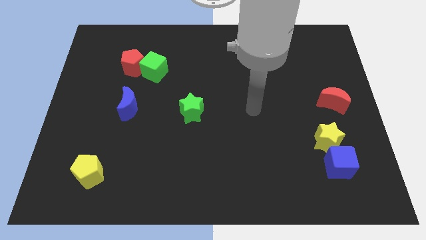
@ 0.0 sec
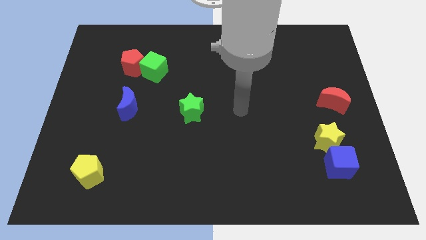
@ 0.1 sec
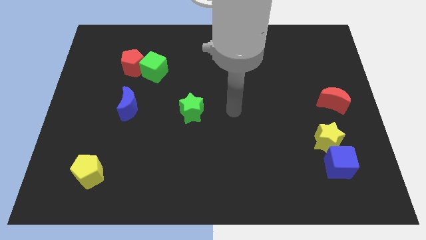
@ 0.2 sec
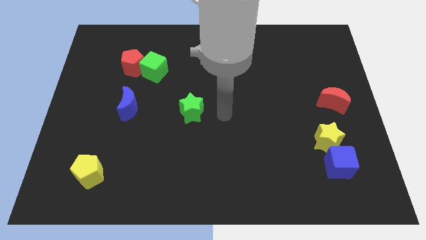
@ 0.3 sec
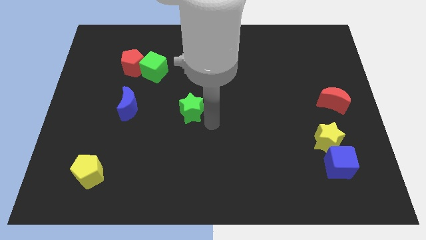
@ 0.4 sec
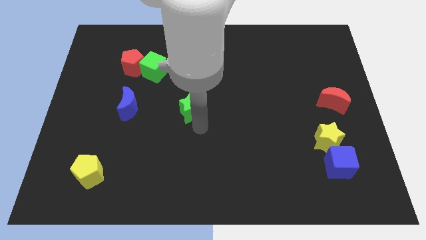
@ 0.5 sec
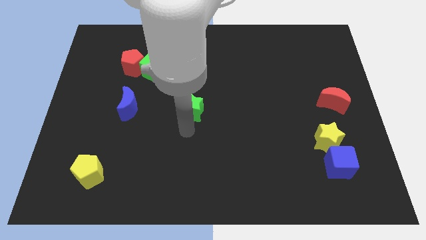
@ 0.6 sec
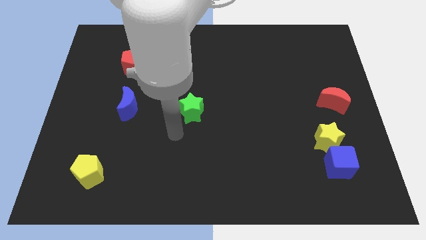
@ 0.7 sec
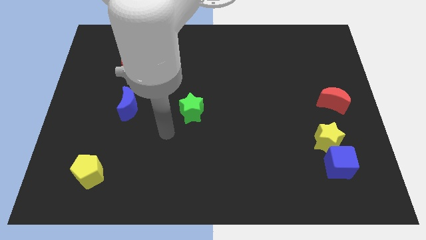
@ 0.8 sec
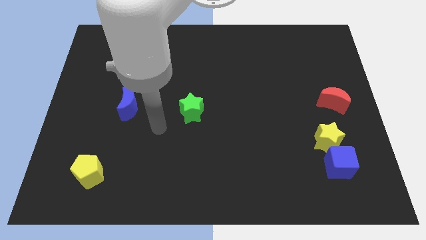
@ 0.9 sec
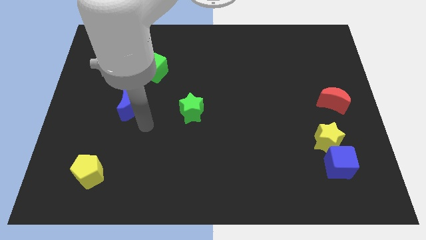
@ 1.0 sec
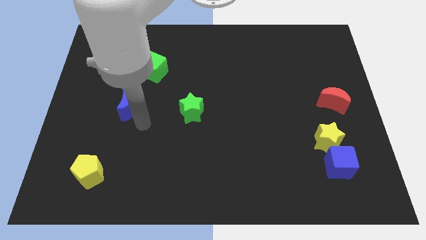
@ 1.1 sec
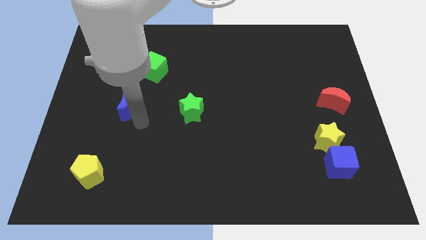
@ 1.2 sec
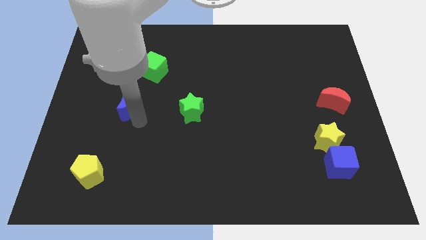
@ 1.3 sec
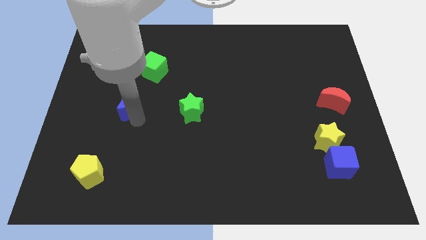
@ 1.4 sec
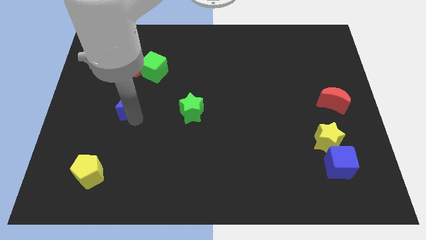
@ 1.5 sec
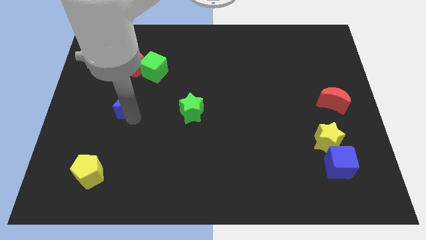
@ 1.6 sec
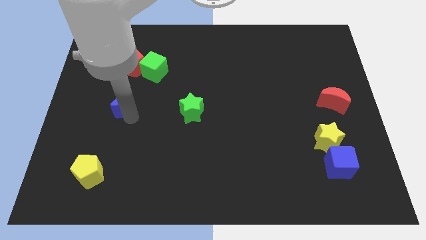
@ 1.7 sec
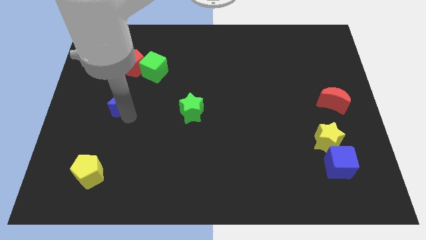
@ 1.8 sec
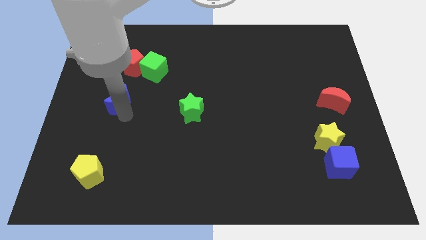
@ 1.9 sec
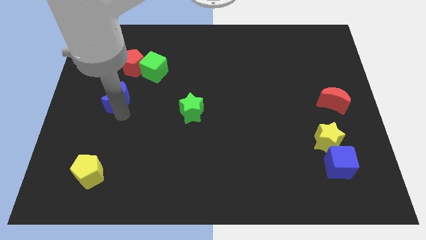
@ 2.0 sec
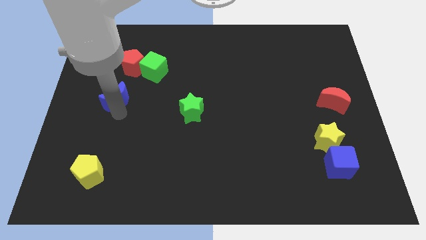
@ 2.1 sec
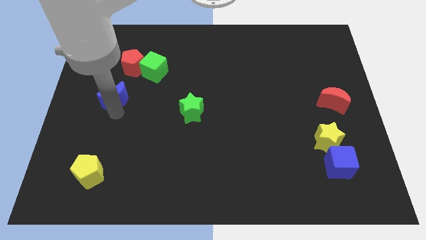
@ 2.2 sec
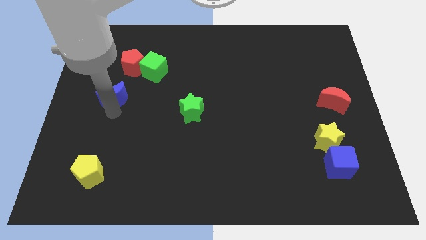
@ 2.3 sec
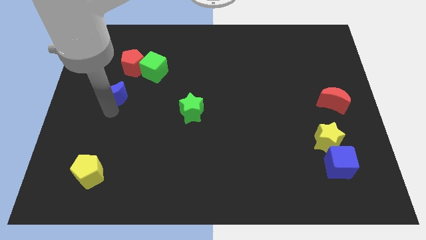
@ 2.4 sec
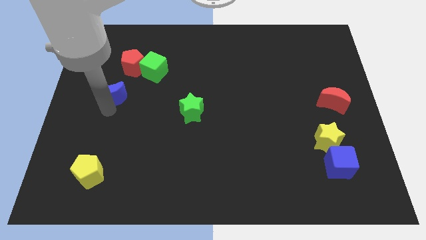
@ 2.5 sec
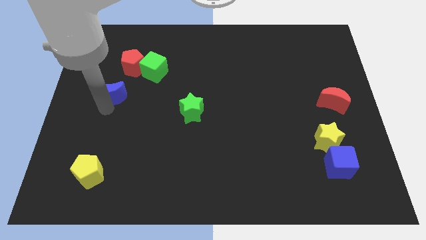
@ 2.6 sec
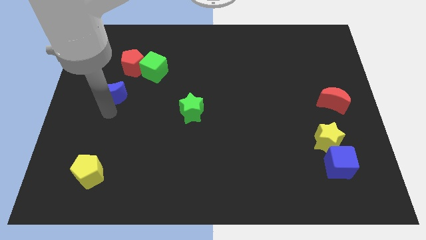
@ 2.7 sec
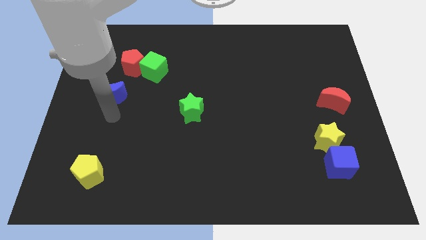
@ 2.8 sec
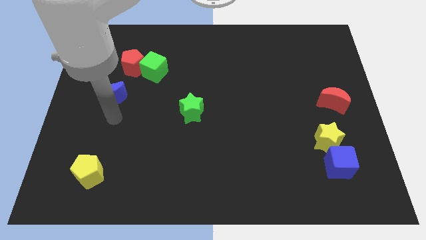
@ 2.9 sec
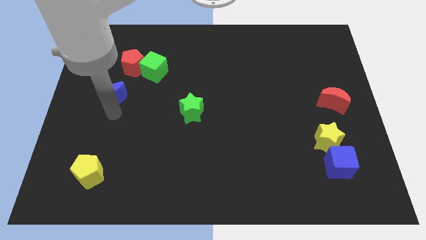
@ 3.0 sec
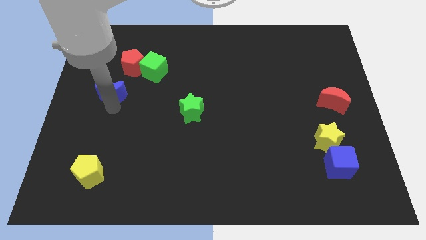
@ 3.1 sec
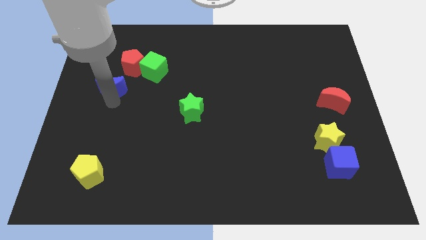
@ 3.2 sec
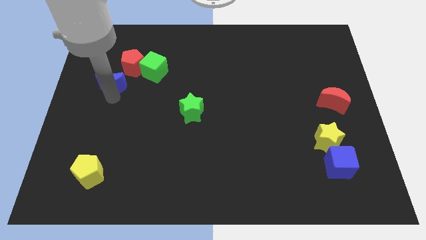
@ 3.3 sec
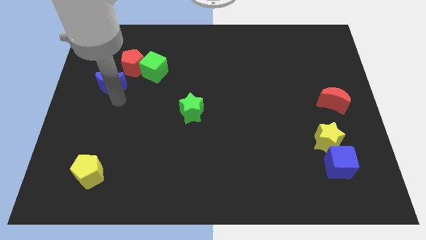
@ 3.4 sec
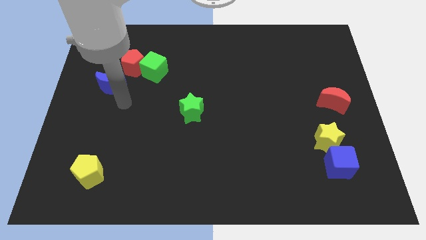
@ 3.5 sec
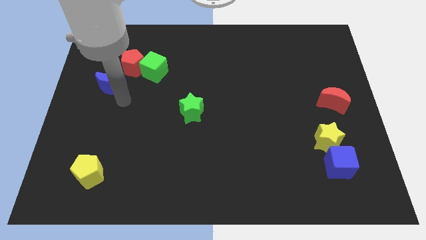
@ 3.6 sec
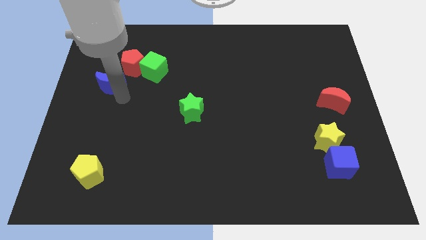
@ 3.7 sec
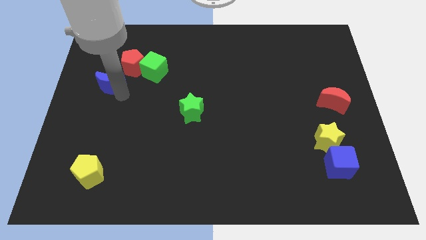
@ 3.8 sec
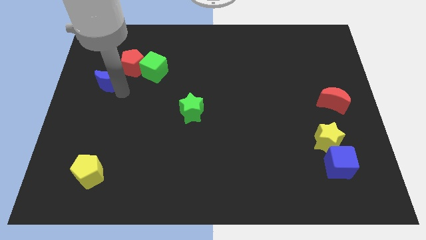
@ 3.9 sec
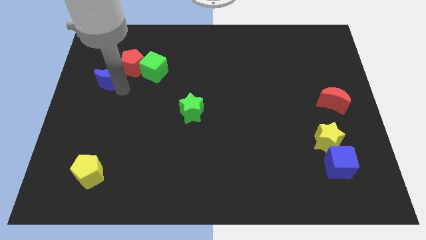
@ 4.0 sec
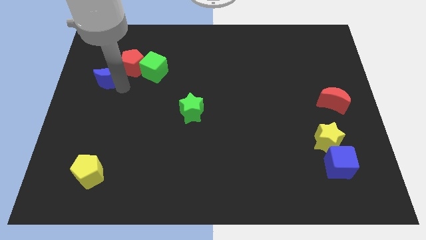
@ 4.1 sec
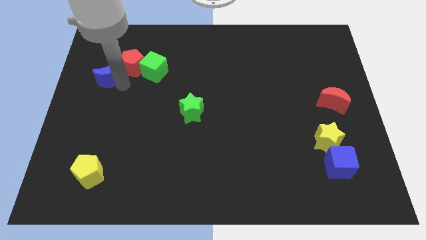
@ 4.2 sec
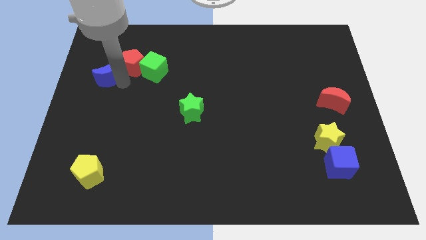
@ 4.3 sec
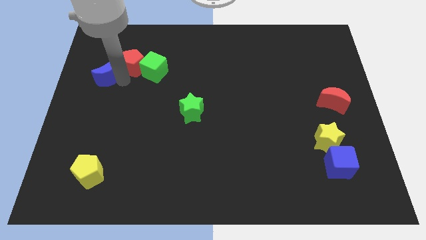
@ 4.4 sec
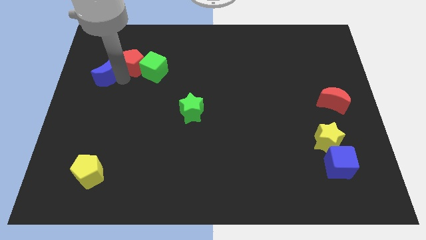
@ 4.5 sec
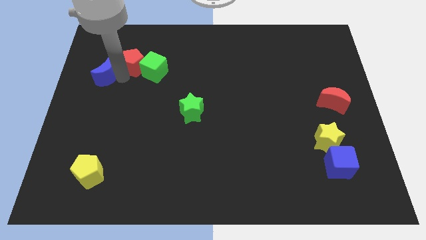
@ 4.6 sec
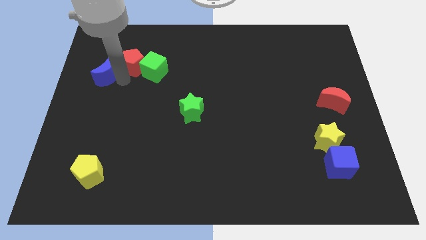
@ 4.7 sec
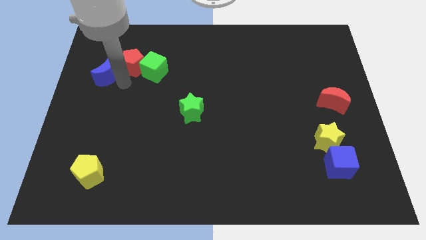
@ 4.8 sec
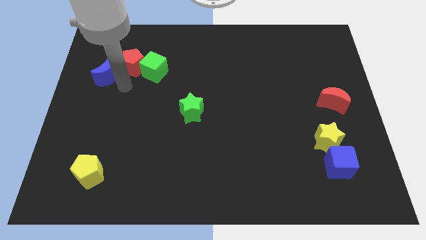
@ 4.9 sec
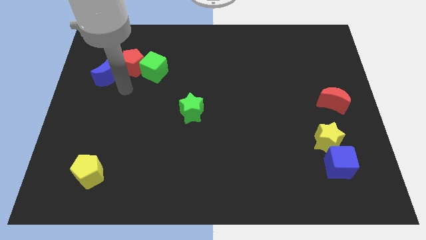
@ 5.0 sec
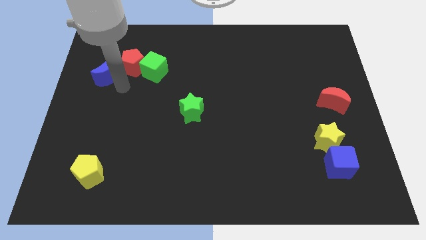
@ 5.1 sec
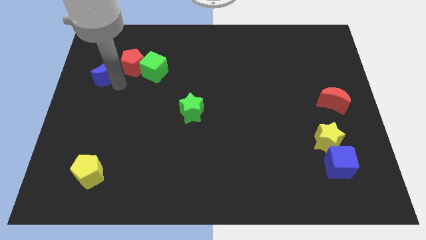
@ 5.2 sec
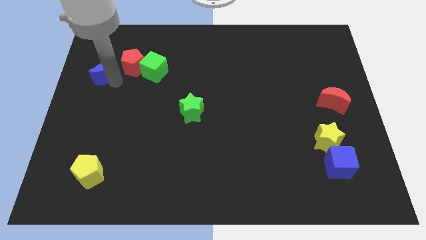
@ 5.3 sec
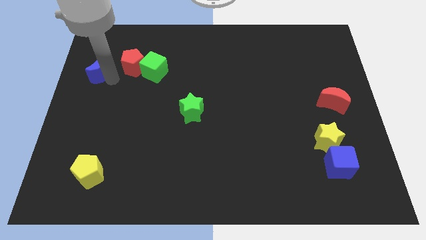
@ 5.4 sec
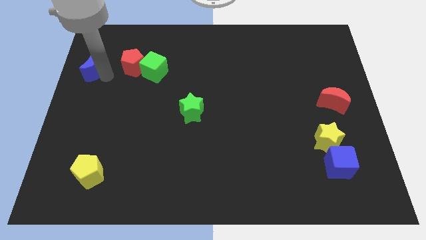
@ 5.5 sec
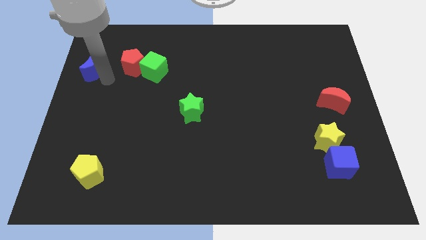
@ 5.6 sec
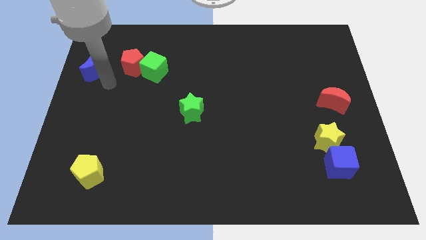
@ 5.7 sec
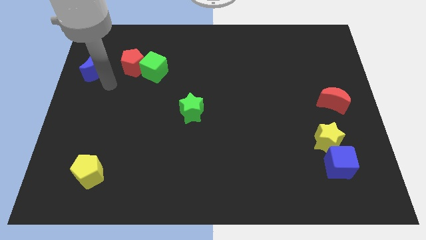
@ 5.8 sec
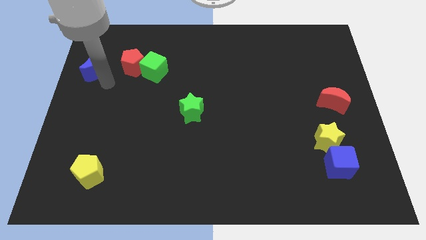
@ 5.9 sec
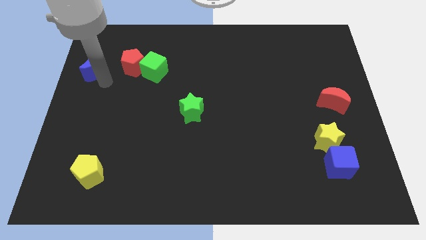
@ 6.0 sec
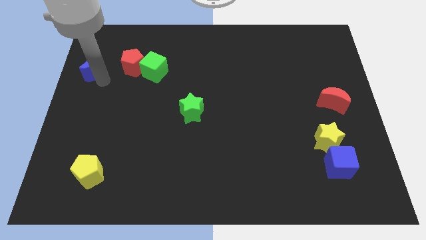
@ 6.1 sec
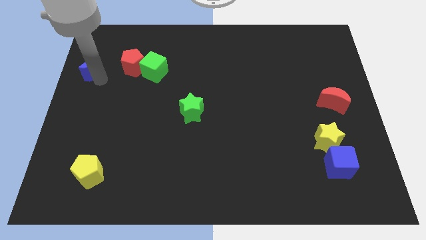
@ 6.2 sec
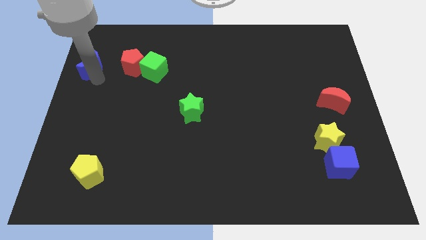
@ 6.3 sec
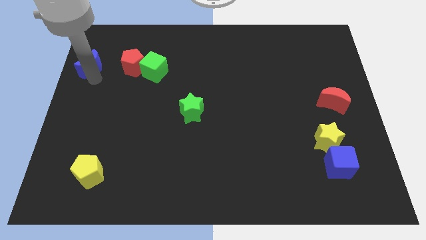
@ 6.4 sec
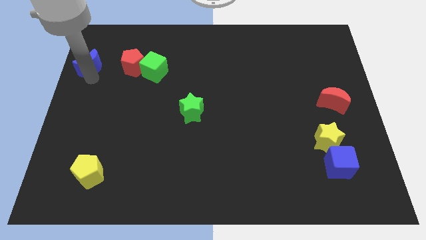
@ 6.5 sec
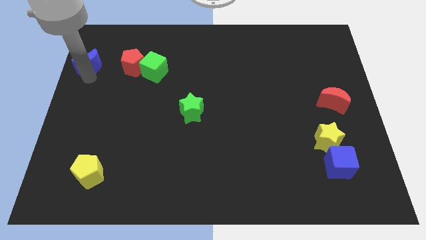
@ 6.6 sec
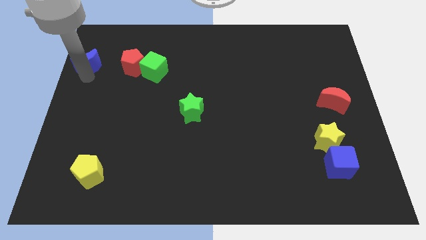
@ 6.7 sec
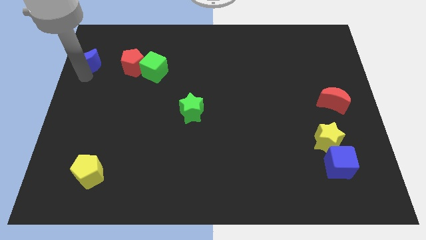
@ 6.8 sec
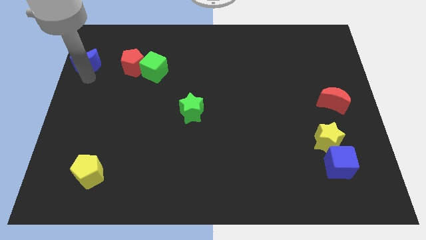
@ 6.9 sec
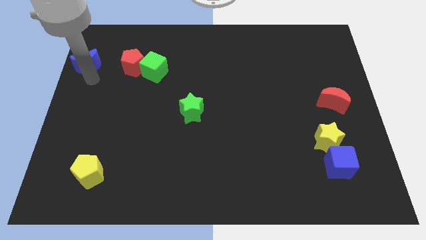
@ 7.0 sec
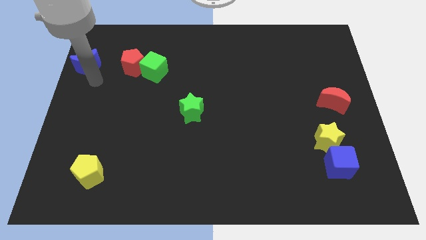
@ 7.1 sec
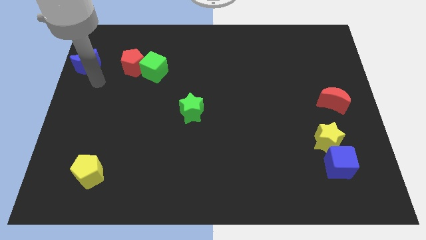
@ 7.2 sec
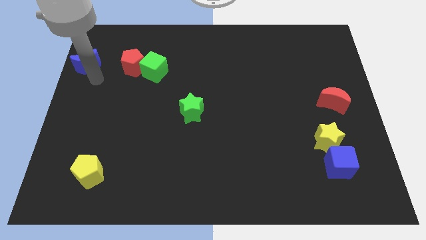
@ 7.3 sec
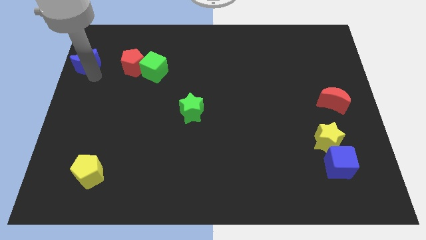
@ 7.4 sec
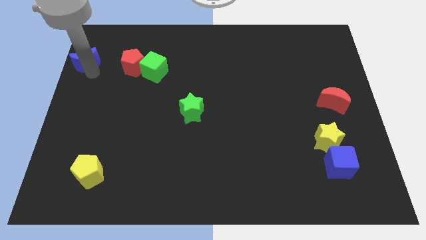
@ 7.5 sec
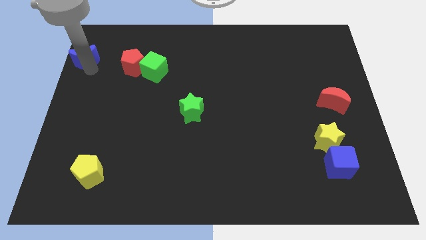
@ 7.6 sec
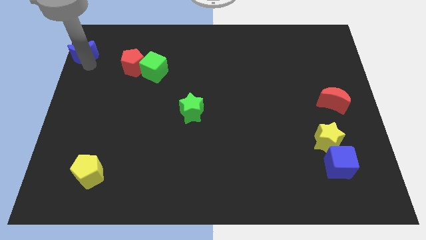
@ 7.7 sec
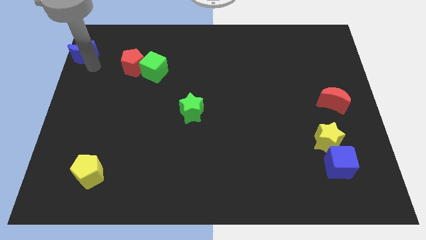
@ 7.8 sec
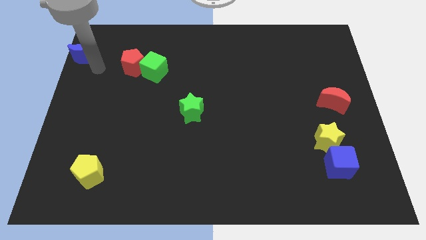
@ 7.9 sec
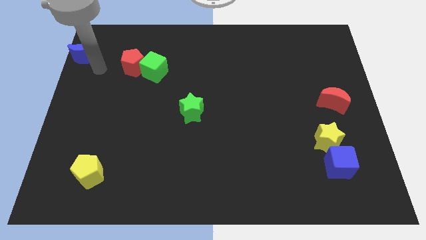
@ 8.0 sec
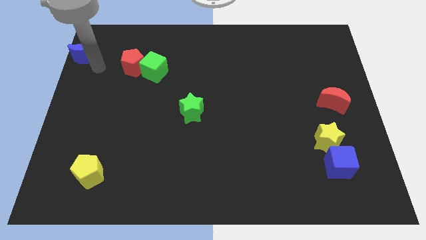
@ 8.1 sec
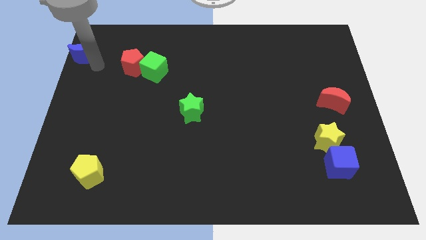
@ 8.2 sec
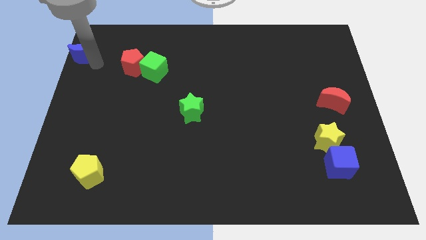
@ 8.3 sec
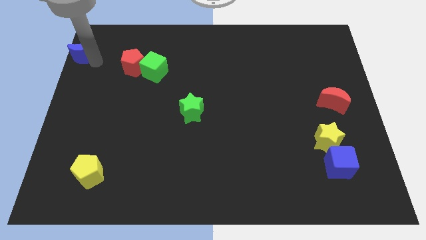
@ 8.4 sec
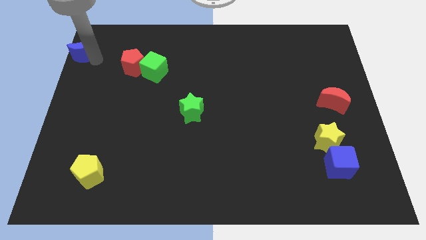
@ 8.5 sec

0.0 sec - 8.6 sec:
put the blue moon to the top left corner
